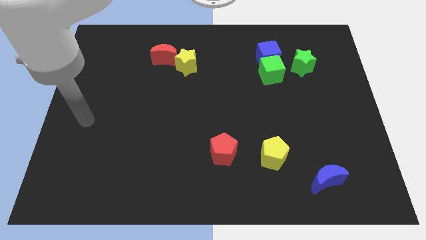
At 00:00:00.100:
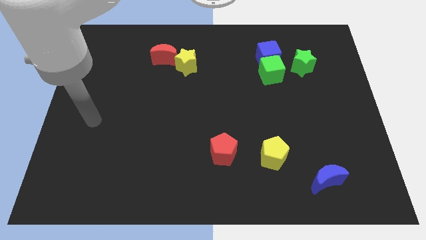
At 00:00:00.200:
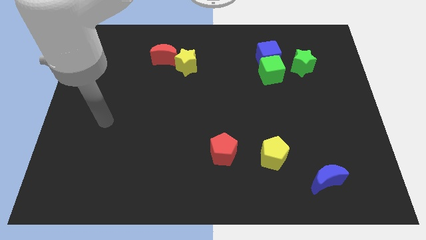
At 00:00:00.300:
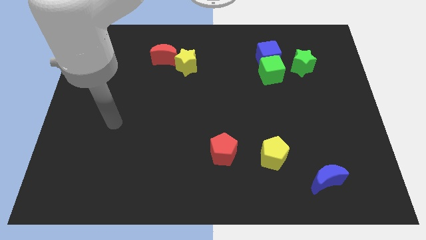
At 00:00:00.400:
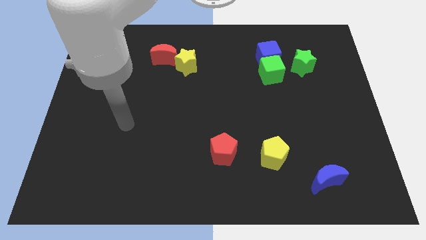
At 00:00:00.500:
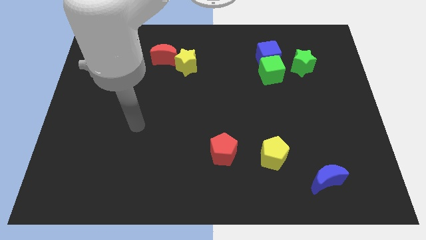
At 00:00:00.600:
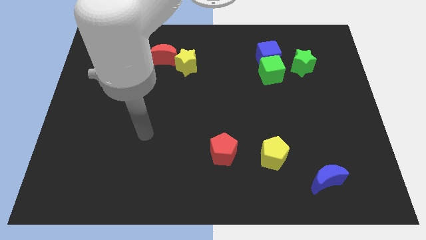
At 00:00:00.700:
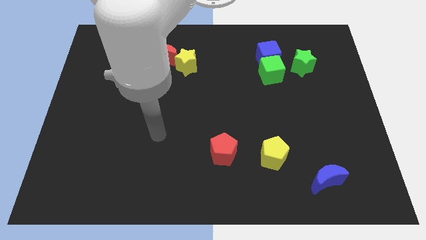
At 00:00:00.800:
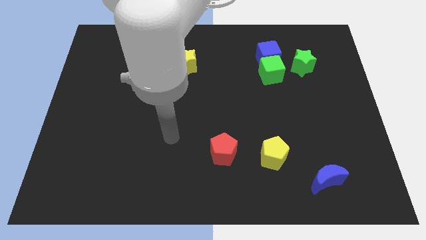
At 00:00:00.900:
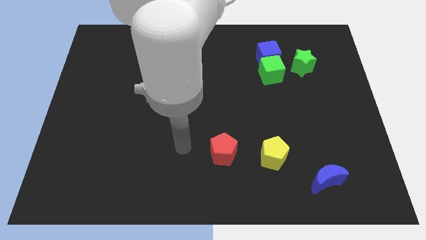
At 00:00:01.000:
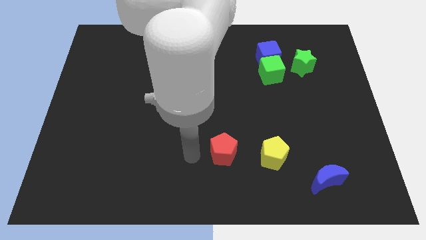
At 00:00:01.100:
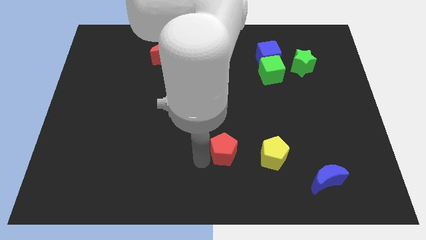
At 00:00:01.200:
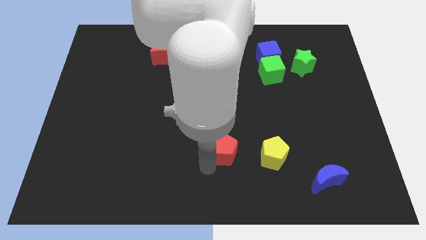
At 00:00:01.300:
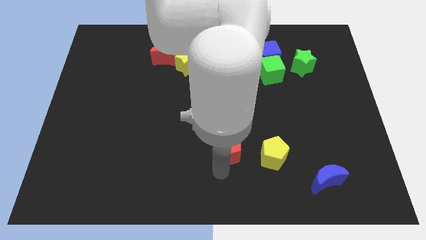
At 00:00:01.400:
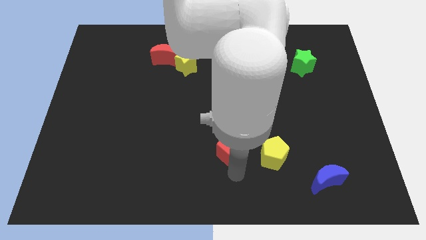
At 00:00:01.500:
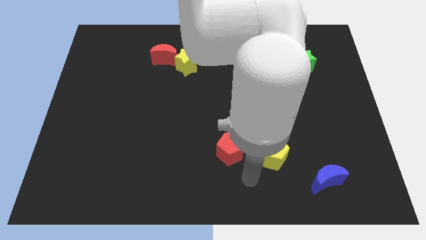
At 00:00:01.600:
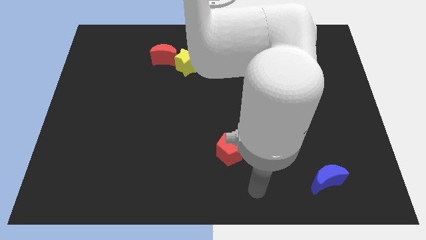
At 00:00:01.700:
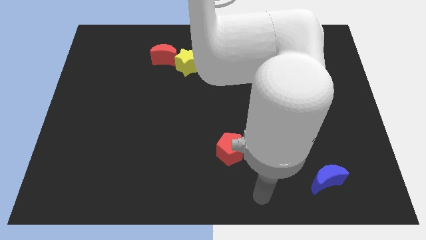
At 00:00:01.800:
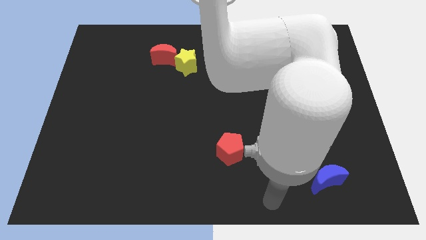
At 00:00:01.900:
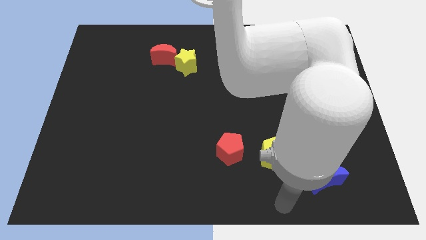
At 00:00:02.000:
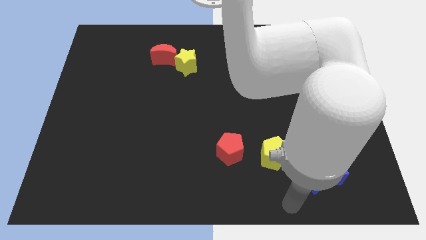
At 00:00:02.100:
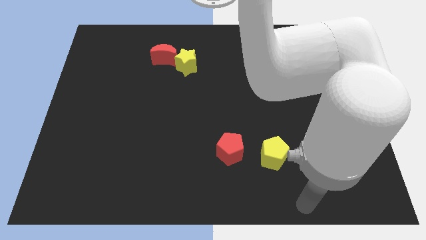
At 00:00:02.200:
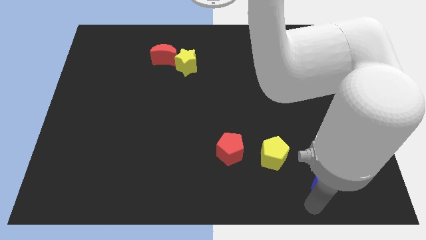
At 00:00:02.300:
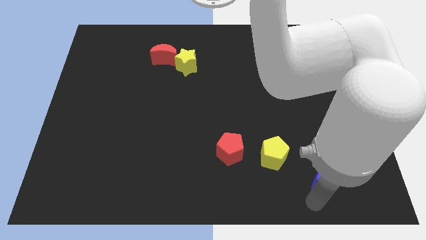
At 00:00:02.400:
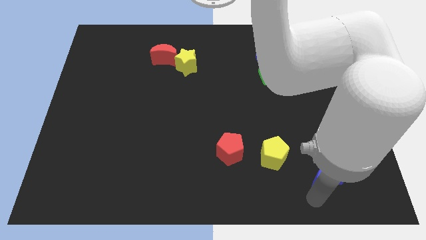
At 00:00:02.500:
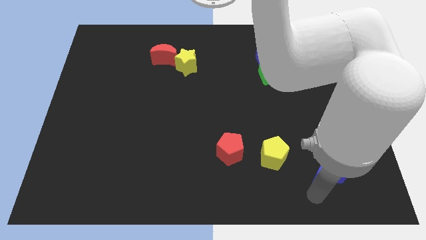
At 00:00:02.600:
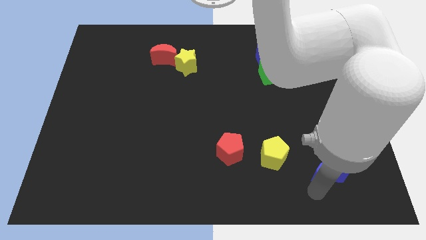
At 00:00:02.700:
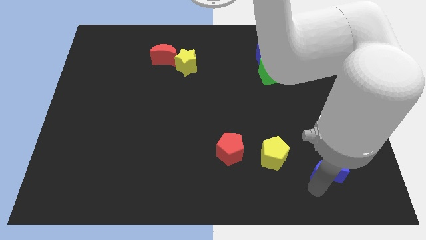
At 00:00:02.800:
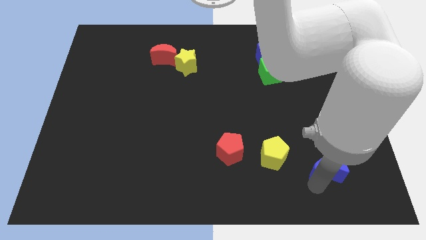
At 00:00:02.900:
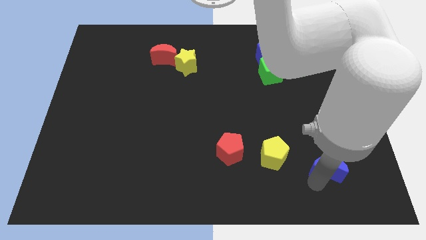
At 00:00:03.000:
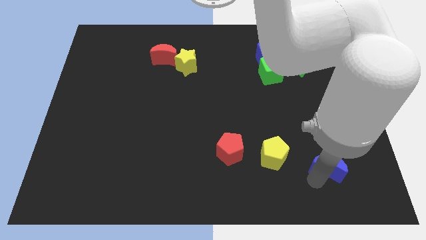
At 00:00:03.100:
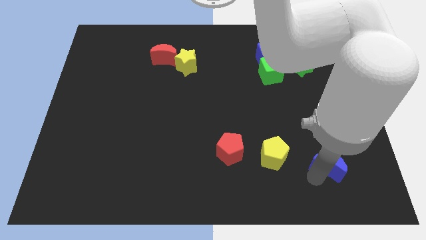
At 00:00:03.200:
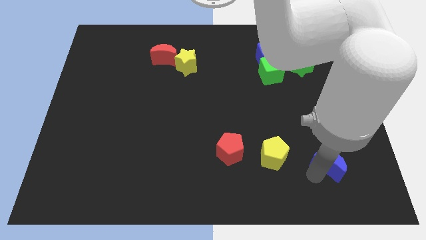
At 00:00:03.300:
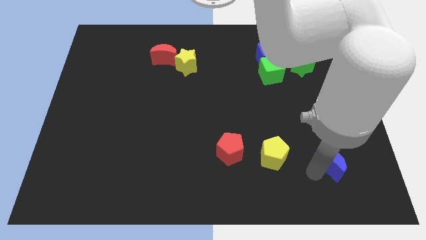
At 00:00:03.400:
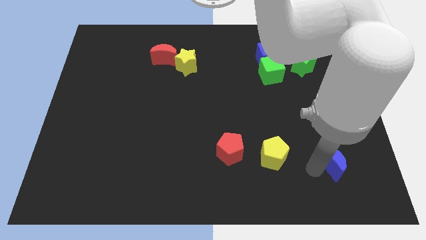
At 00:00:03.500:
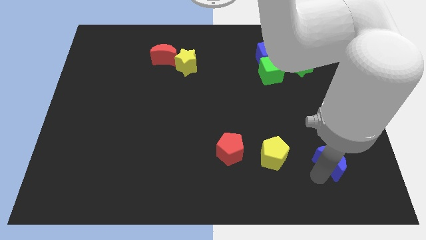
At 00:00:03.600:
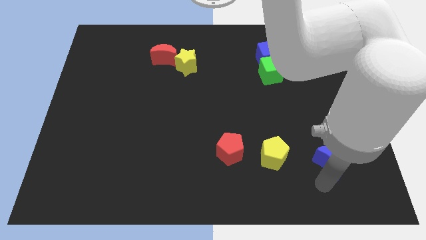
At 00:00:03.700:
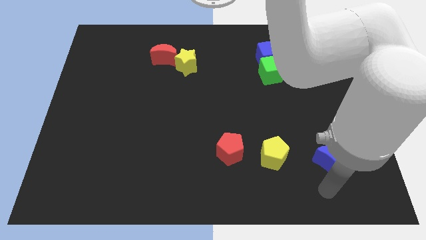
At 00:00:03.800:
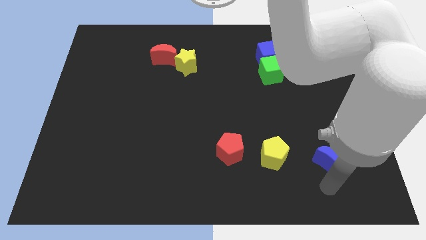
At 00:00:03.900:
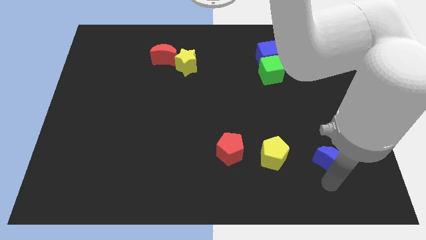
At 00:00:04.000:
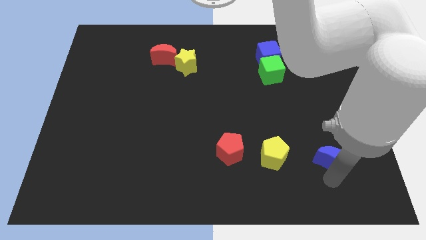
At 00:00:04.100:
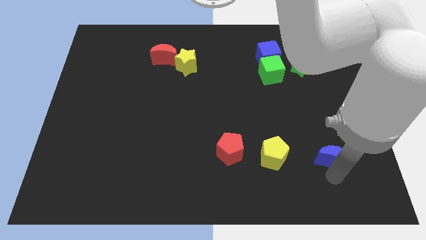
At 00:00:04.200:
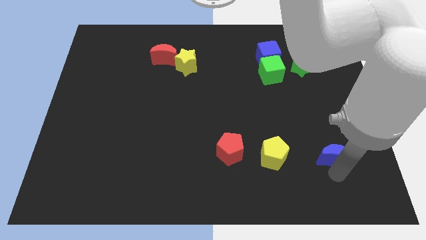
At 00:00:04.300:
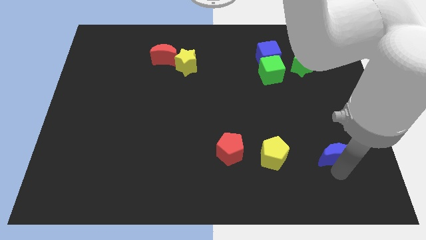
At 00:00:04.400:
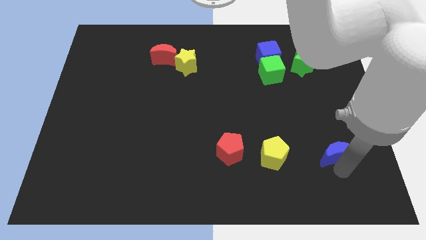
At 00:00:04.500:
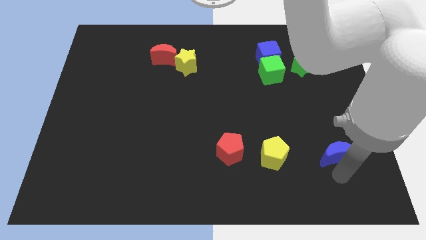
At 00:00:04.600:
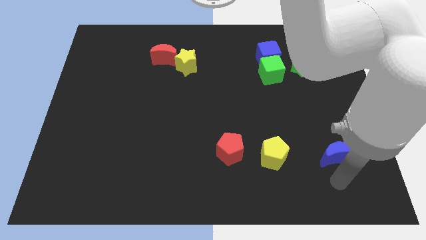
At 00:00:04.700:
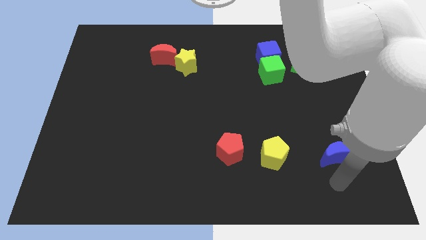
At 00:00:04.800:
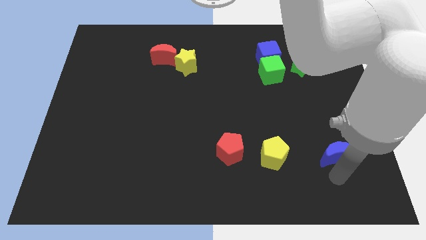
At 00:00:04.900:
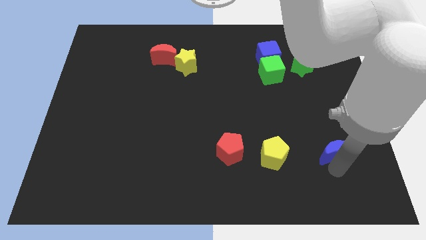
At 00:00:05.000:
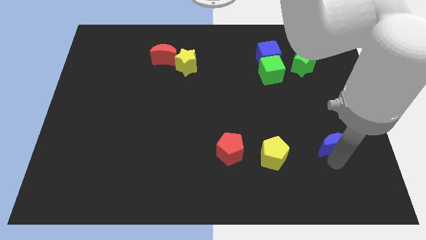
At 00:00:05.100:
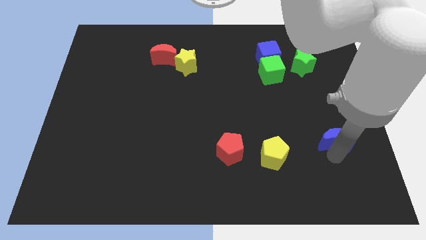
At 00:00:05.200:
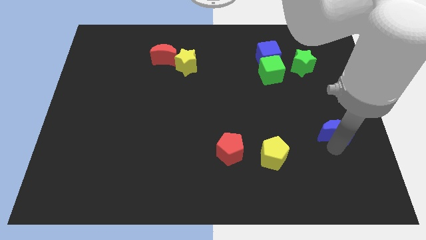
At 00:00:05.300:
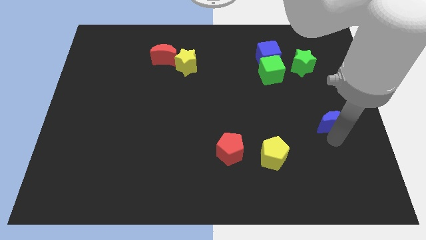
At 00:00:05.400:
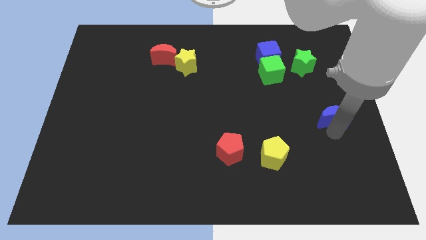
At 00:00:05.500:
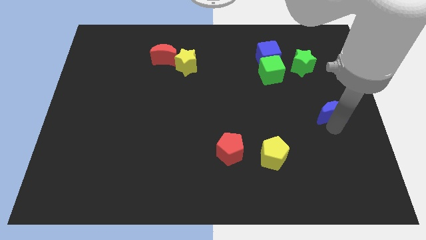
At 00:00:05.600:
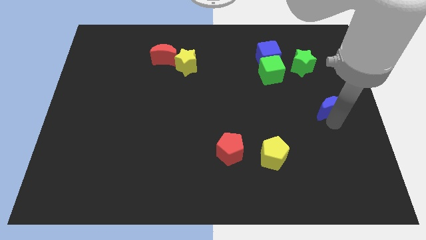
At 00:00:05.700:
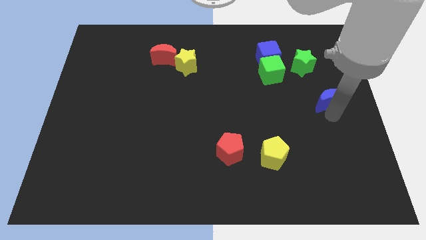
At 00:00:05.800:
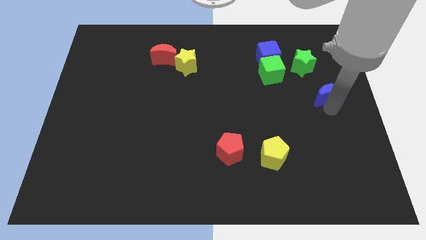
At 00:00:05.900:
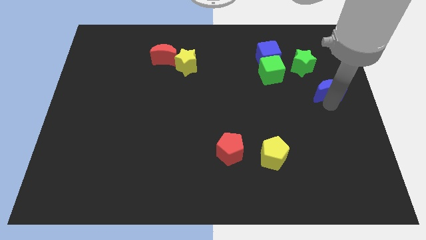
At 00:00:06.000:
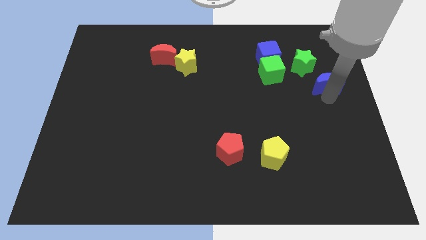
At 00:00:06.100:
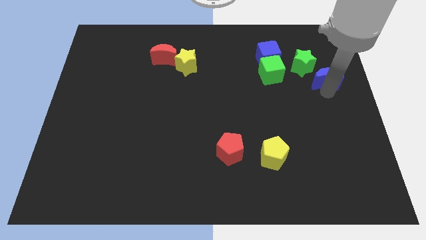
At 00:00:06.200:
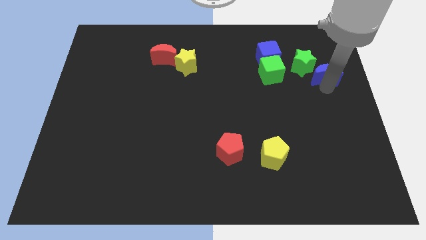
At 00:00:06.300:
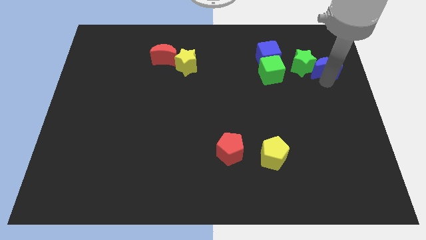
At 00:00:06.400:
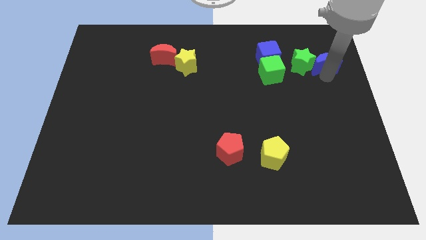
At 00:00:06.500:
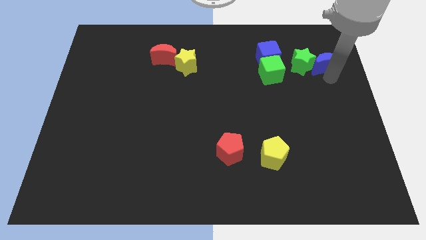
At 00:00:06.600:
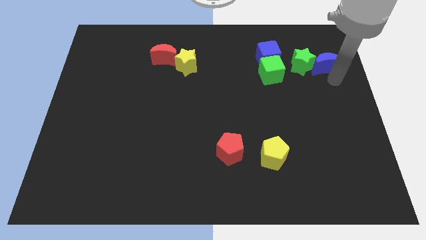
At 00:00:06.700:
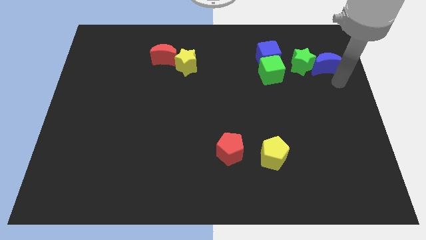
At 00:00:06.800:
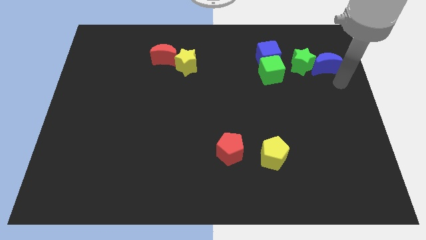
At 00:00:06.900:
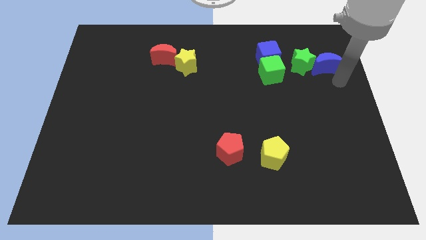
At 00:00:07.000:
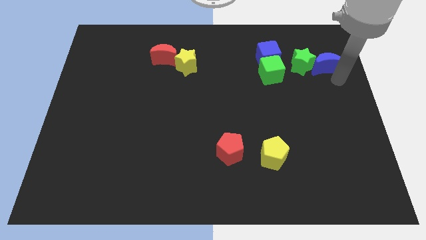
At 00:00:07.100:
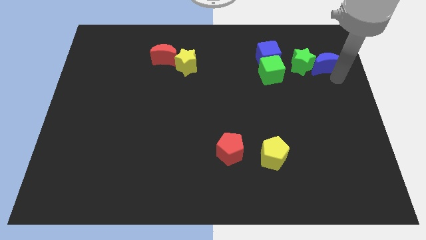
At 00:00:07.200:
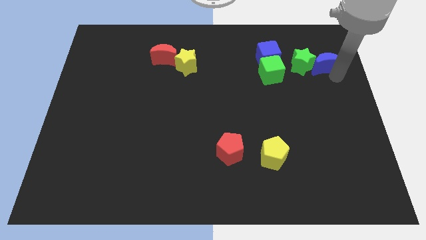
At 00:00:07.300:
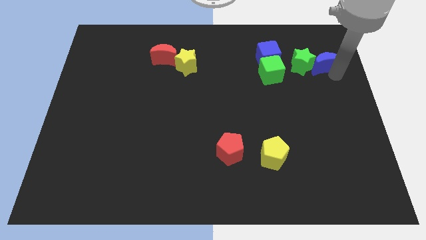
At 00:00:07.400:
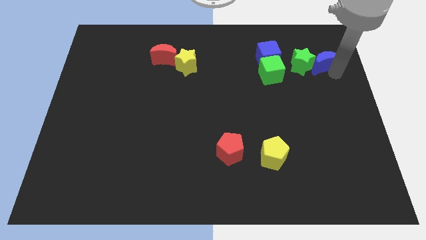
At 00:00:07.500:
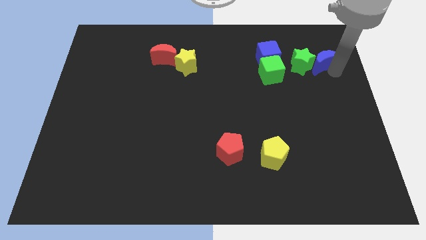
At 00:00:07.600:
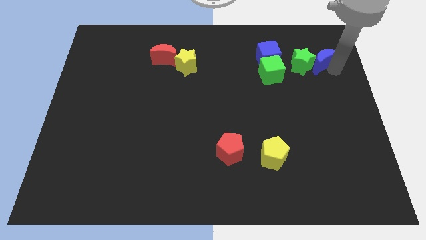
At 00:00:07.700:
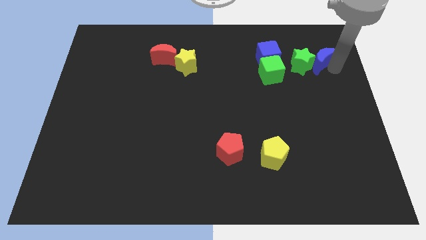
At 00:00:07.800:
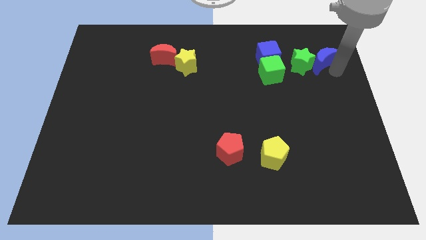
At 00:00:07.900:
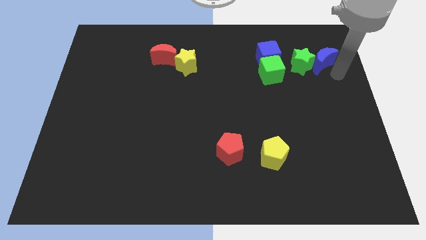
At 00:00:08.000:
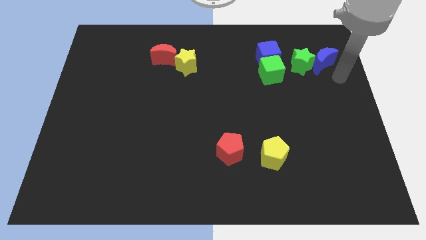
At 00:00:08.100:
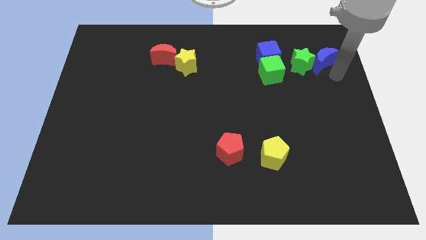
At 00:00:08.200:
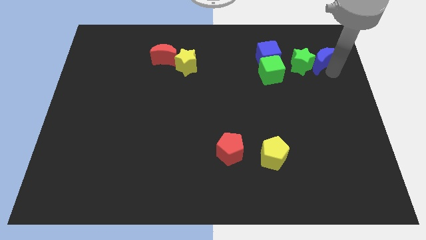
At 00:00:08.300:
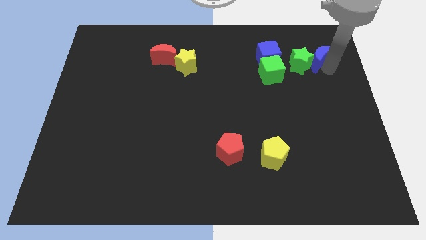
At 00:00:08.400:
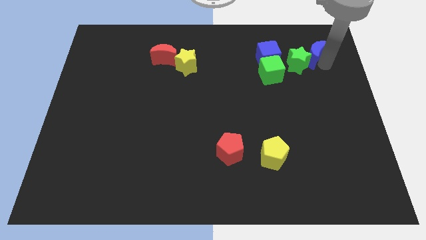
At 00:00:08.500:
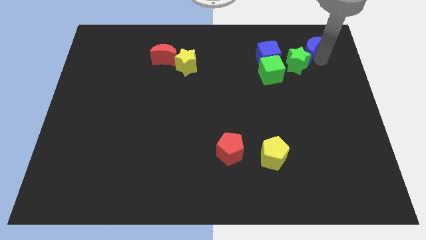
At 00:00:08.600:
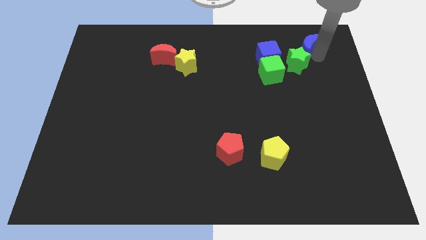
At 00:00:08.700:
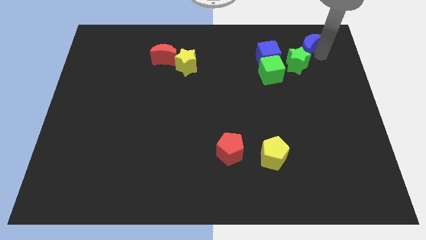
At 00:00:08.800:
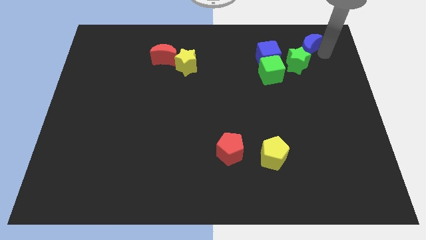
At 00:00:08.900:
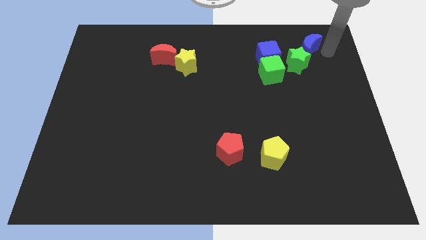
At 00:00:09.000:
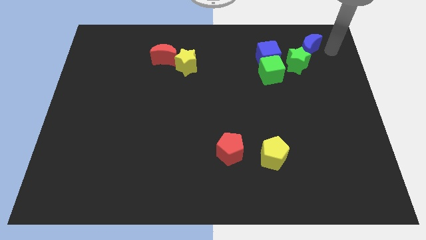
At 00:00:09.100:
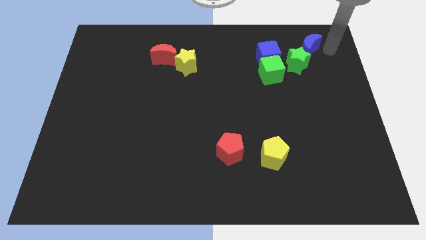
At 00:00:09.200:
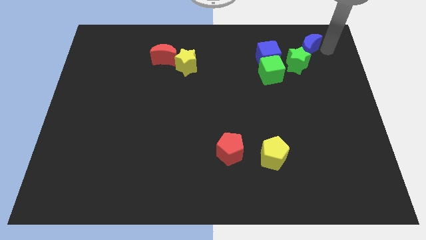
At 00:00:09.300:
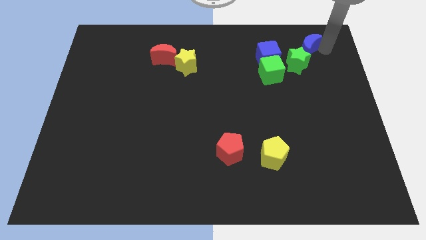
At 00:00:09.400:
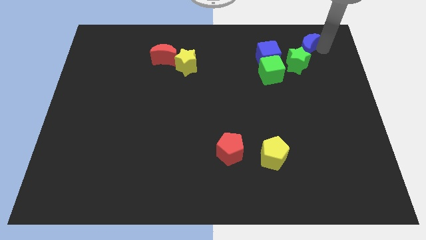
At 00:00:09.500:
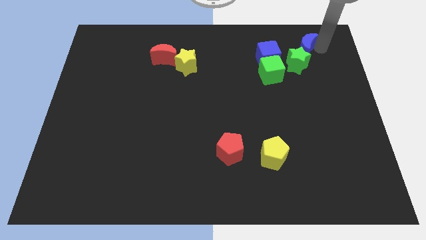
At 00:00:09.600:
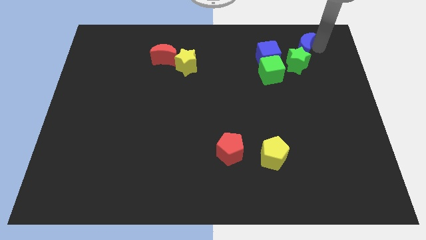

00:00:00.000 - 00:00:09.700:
push the blue moon to the top right of the green cube
